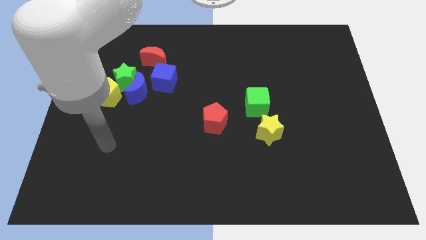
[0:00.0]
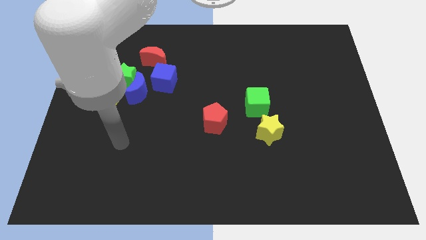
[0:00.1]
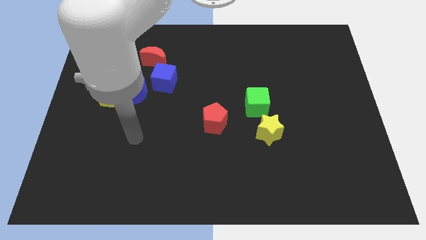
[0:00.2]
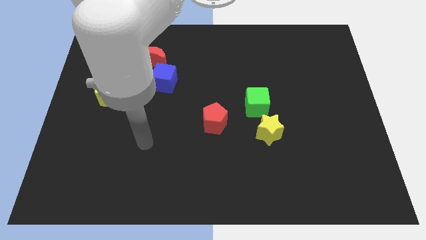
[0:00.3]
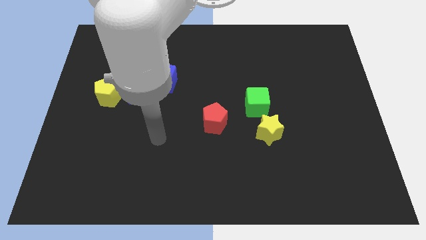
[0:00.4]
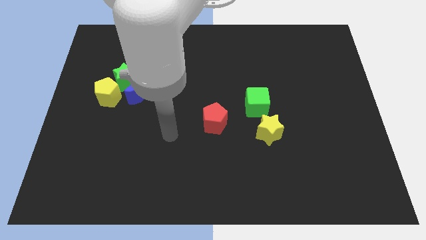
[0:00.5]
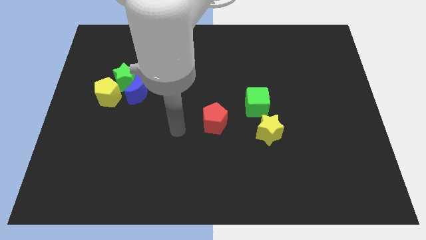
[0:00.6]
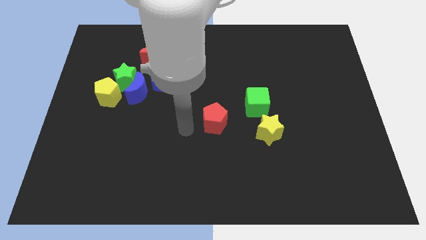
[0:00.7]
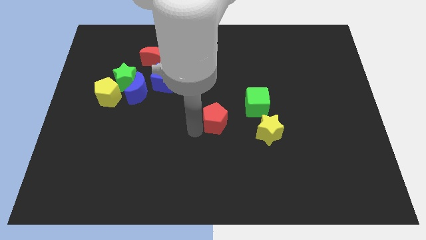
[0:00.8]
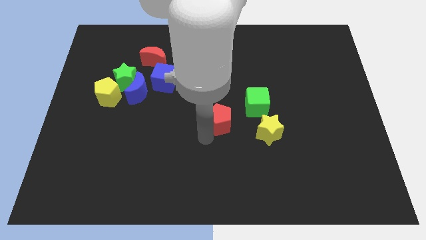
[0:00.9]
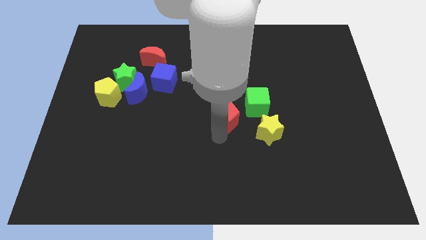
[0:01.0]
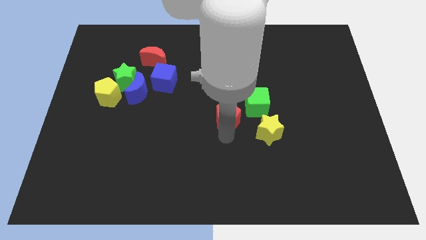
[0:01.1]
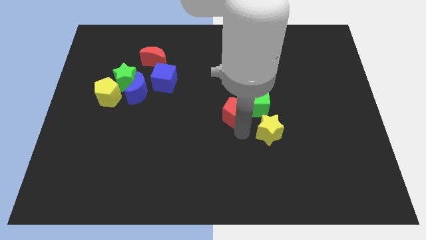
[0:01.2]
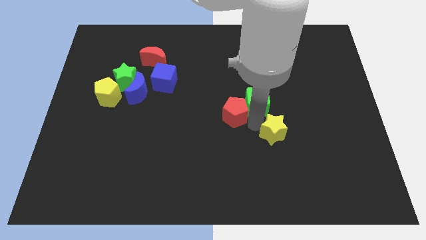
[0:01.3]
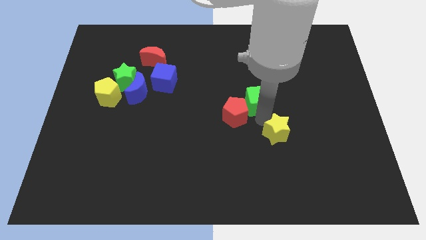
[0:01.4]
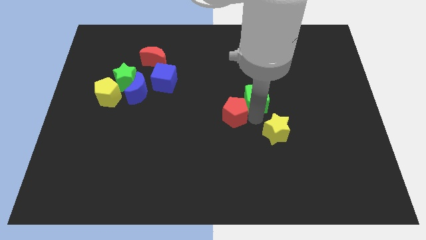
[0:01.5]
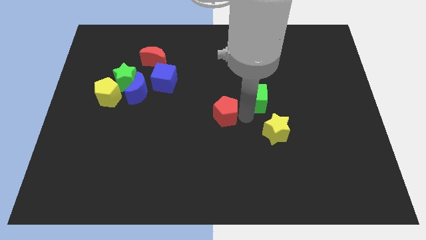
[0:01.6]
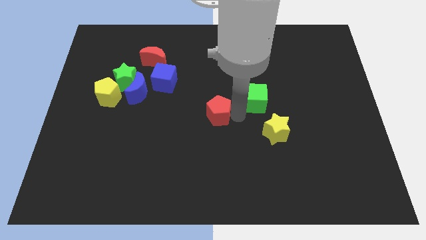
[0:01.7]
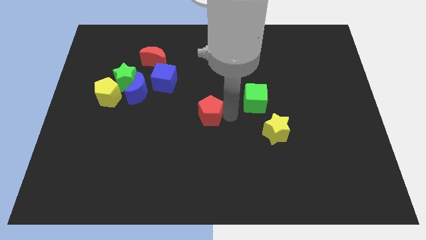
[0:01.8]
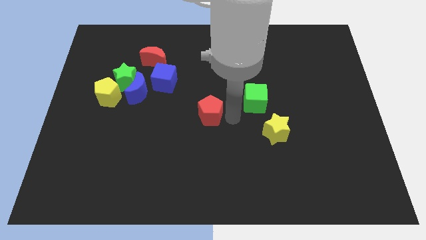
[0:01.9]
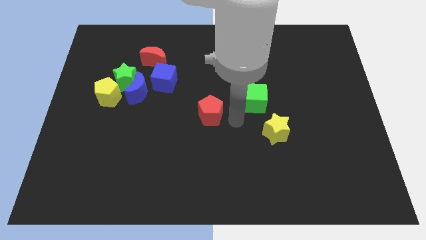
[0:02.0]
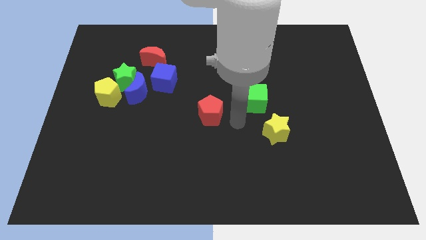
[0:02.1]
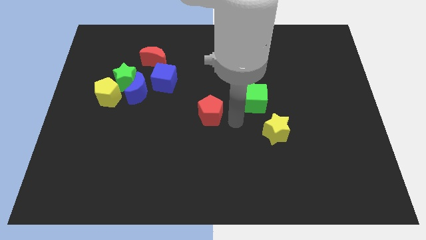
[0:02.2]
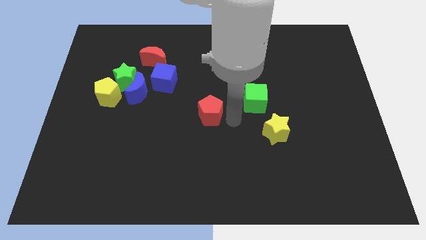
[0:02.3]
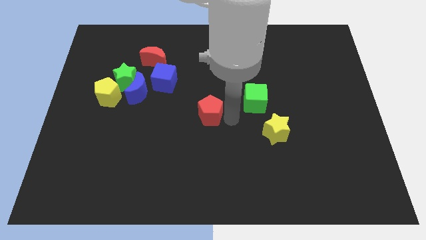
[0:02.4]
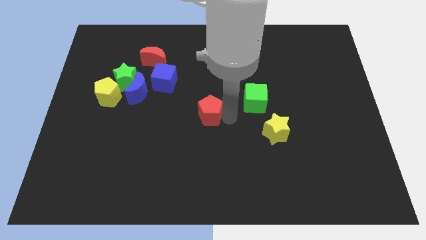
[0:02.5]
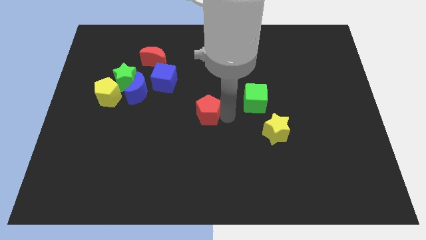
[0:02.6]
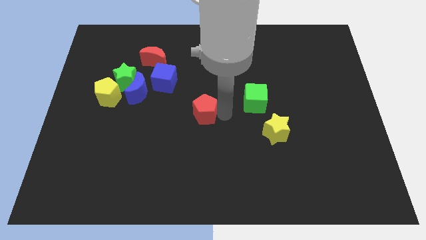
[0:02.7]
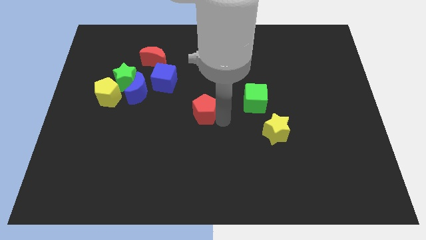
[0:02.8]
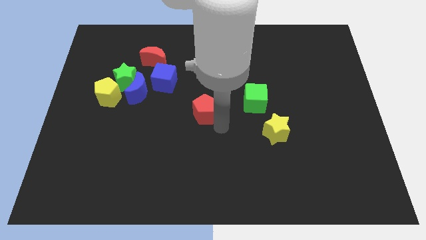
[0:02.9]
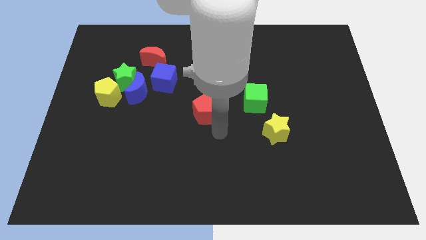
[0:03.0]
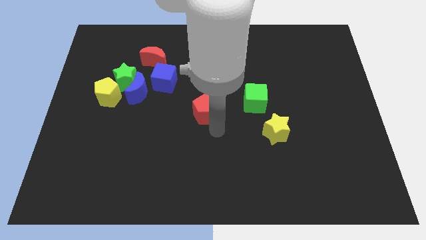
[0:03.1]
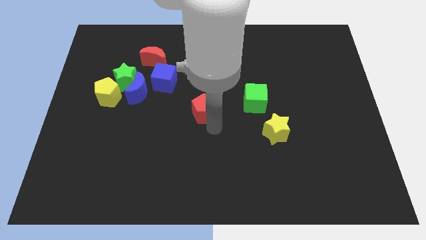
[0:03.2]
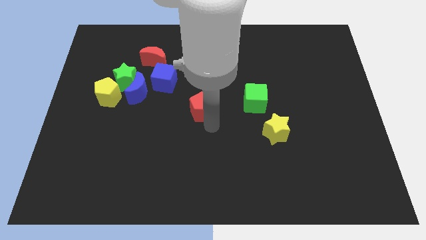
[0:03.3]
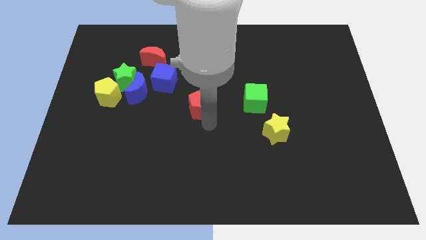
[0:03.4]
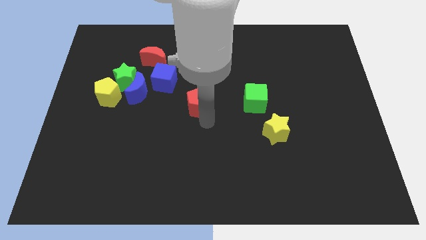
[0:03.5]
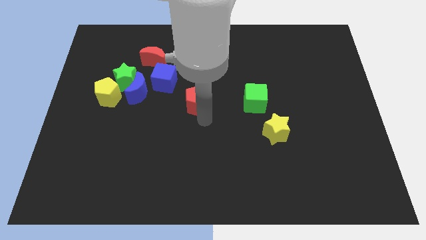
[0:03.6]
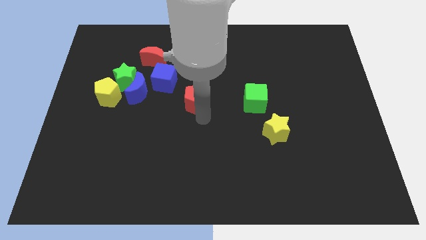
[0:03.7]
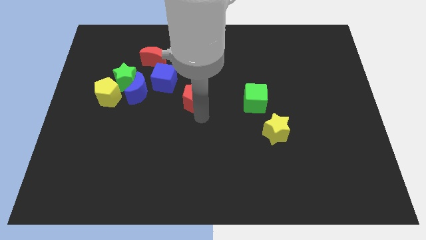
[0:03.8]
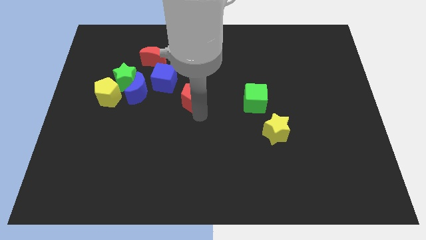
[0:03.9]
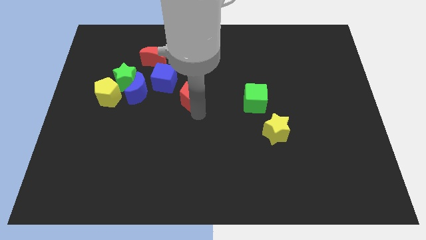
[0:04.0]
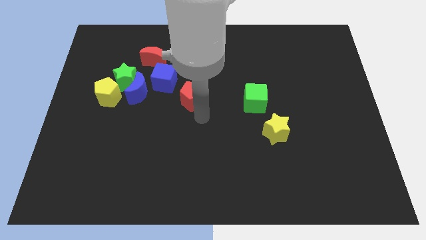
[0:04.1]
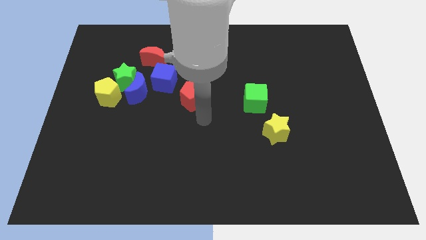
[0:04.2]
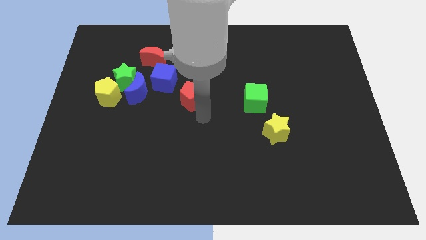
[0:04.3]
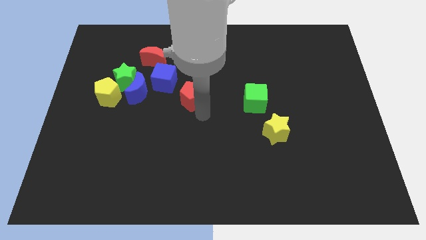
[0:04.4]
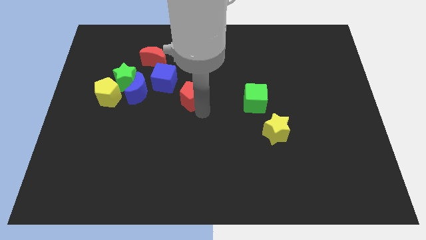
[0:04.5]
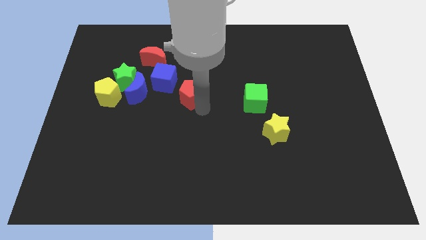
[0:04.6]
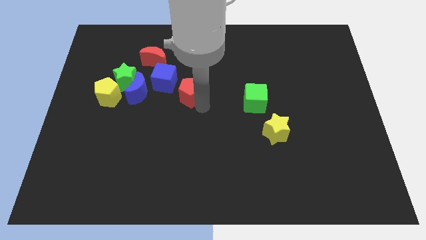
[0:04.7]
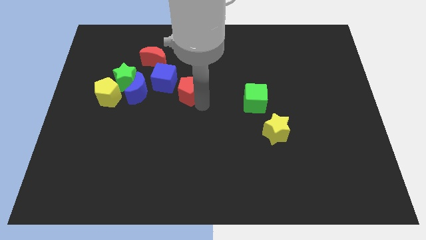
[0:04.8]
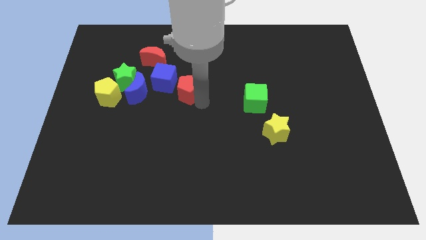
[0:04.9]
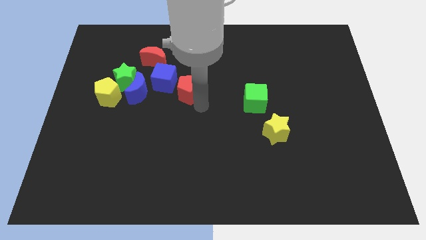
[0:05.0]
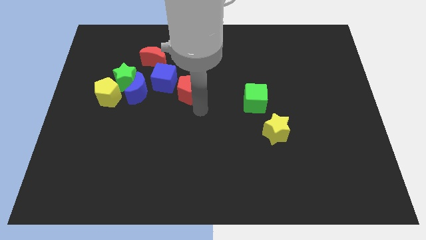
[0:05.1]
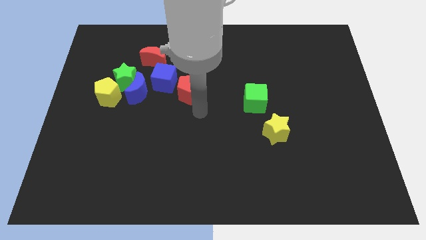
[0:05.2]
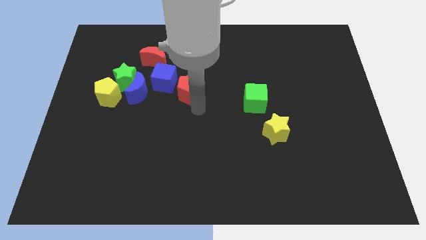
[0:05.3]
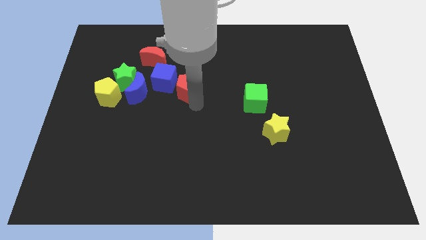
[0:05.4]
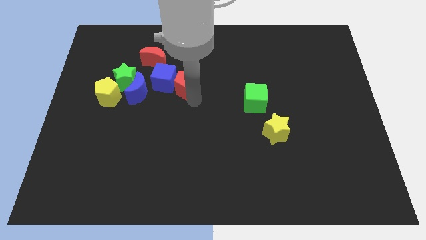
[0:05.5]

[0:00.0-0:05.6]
slide the red pentagon just right of the green star

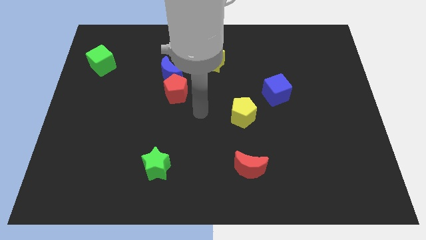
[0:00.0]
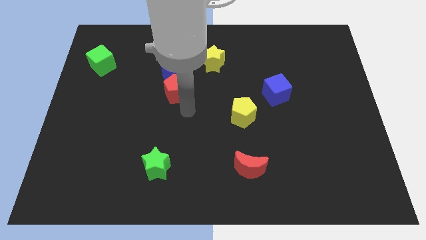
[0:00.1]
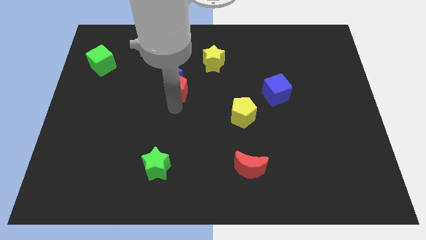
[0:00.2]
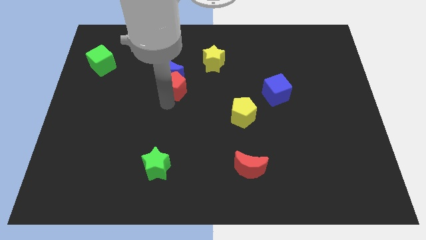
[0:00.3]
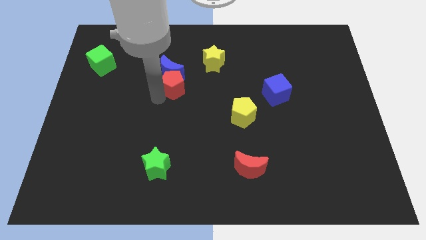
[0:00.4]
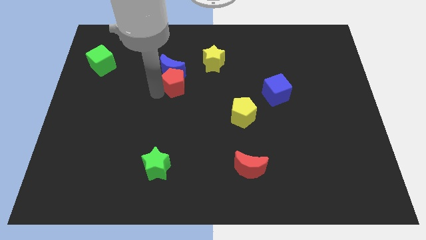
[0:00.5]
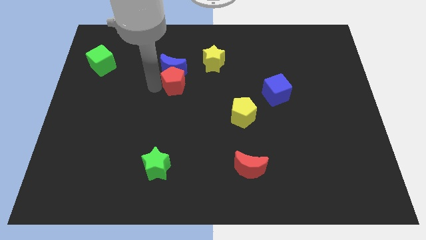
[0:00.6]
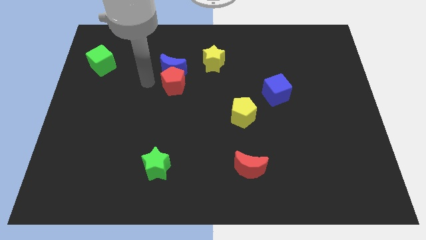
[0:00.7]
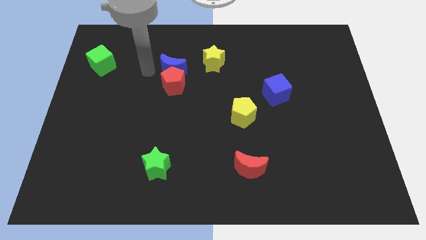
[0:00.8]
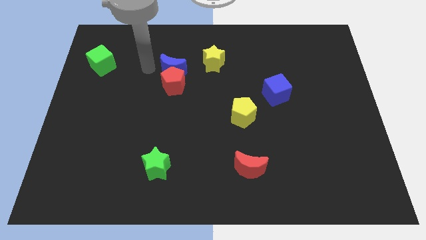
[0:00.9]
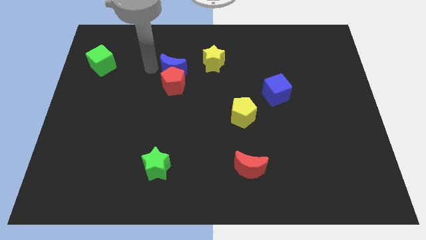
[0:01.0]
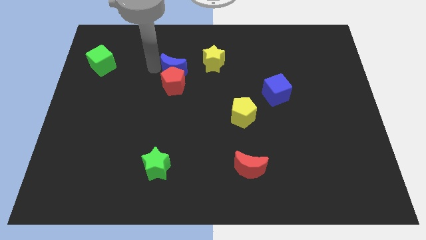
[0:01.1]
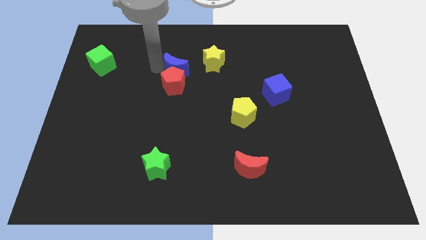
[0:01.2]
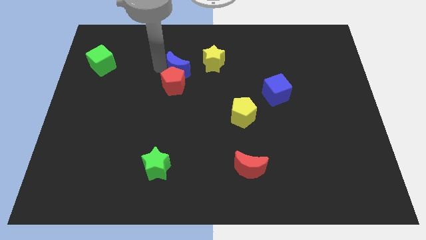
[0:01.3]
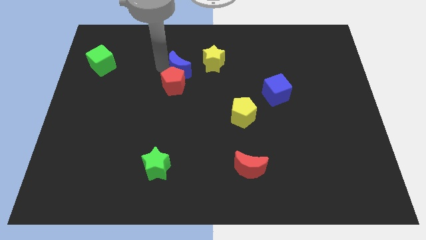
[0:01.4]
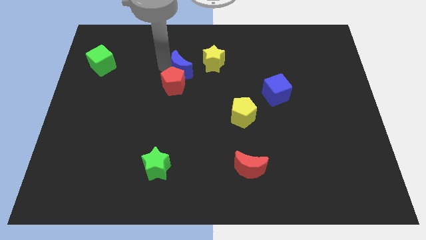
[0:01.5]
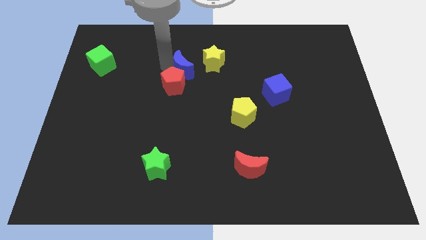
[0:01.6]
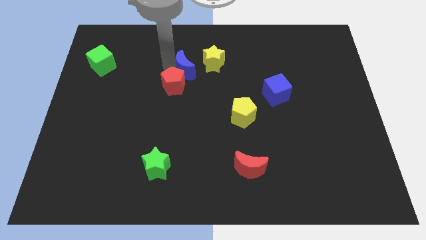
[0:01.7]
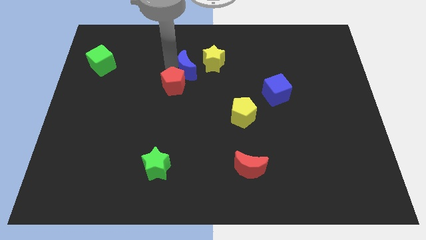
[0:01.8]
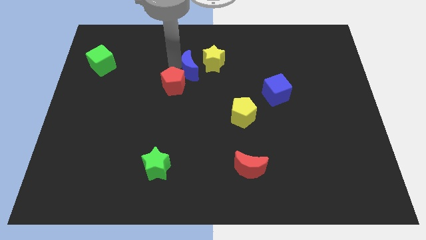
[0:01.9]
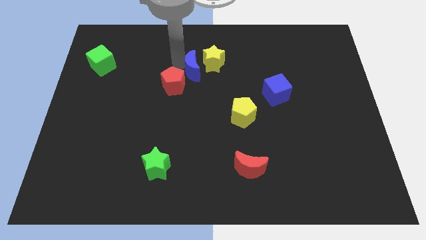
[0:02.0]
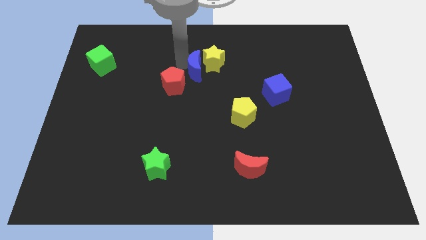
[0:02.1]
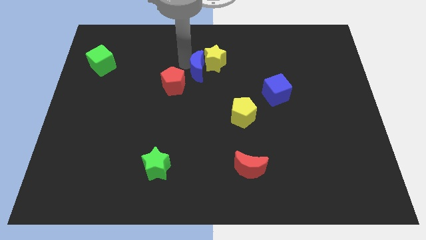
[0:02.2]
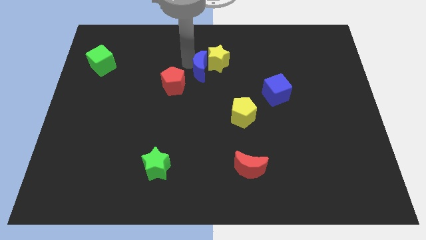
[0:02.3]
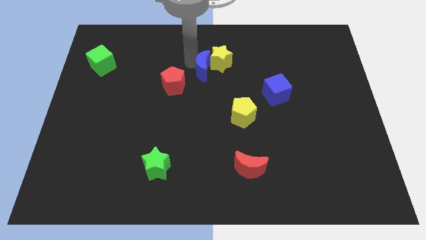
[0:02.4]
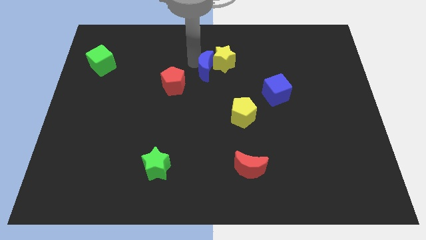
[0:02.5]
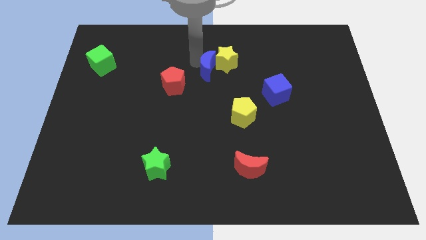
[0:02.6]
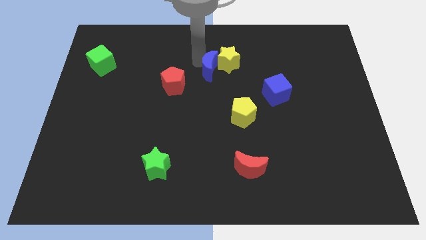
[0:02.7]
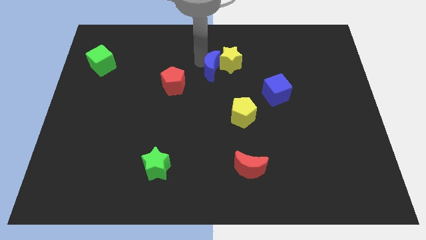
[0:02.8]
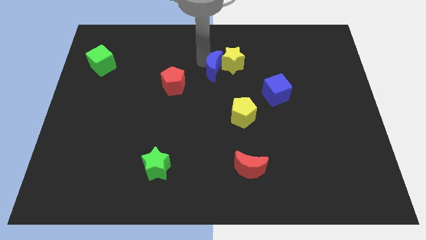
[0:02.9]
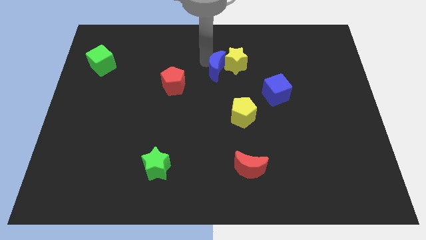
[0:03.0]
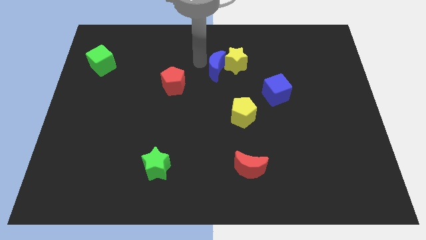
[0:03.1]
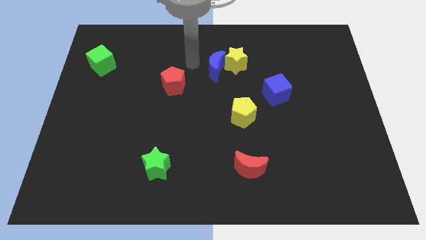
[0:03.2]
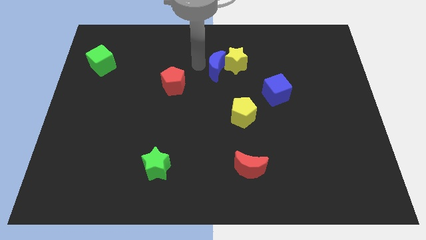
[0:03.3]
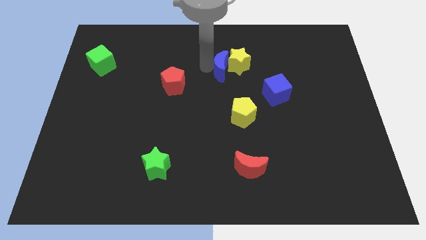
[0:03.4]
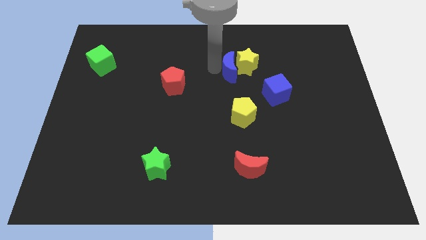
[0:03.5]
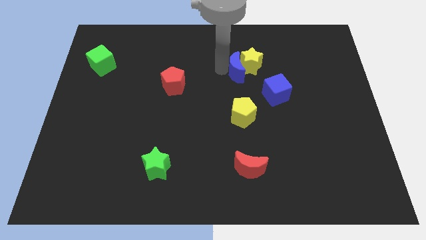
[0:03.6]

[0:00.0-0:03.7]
slide the blue moon to the top left of the blue cube
